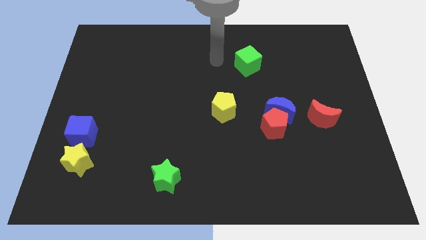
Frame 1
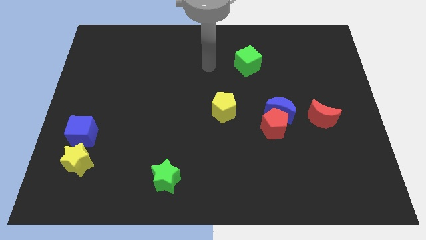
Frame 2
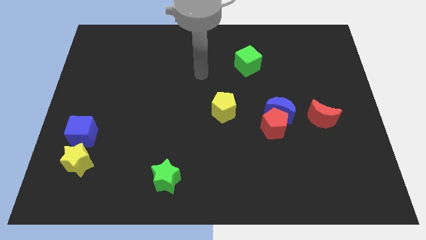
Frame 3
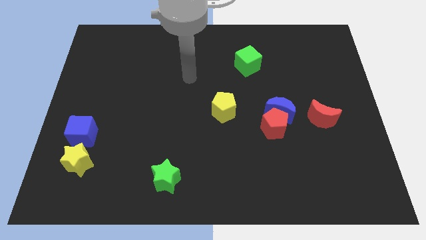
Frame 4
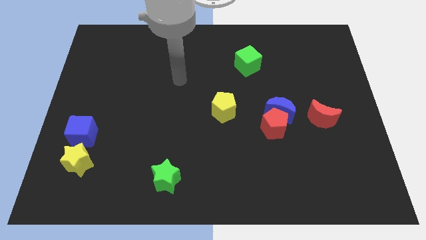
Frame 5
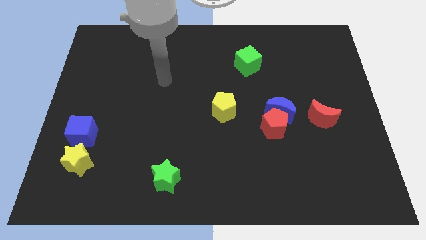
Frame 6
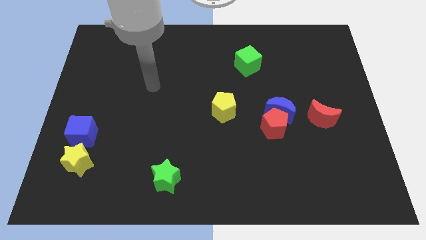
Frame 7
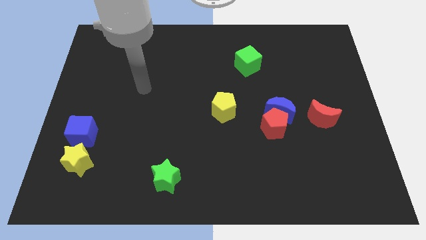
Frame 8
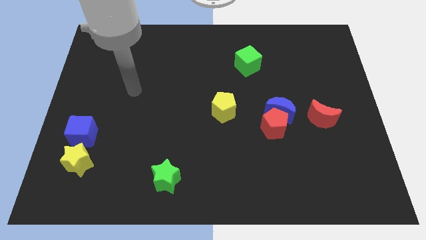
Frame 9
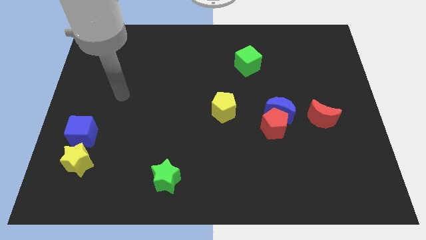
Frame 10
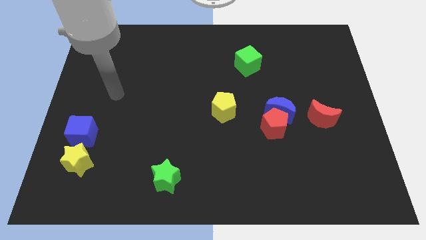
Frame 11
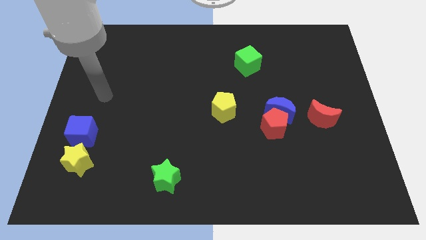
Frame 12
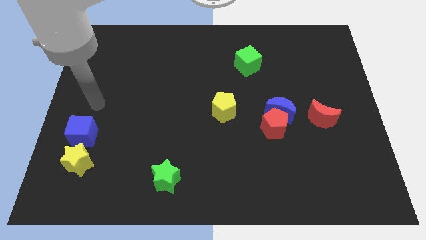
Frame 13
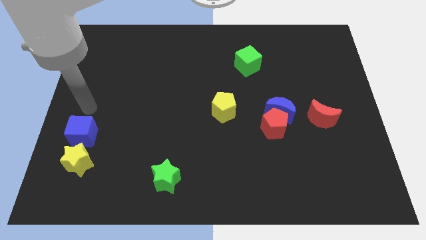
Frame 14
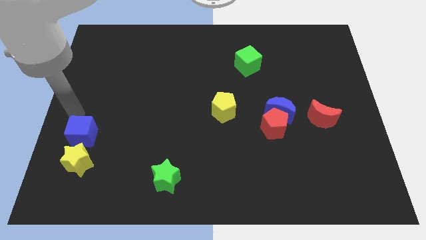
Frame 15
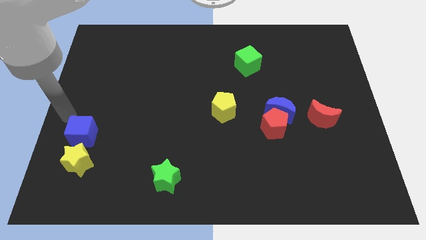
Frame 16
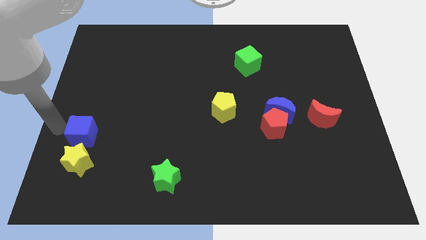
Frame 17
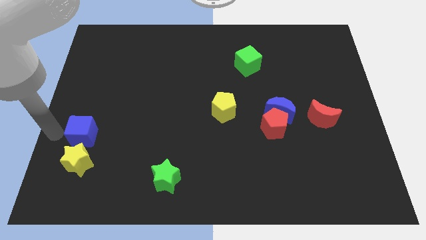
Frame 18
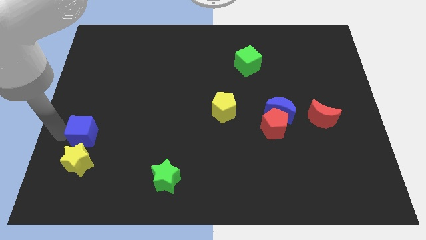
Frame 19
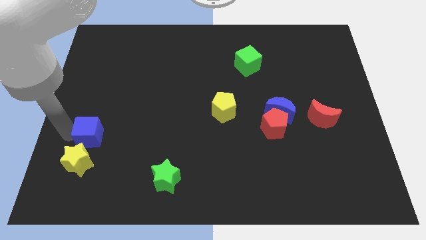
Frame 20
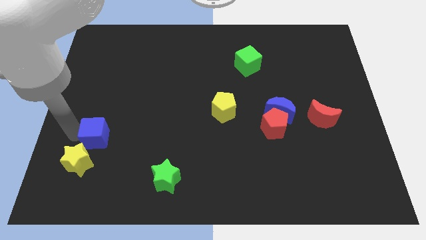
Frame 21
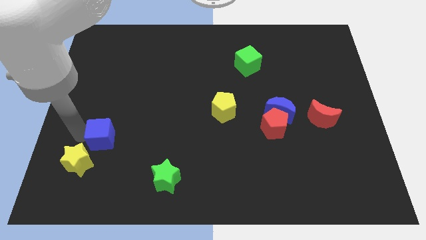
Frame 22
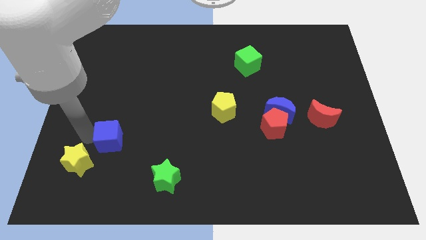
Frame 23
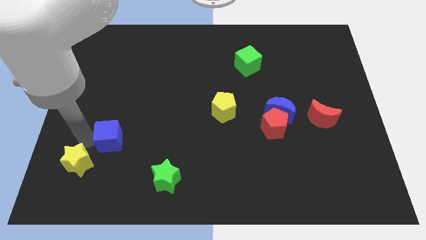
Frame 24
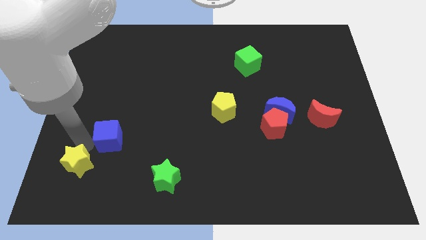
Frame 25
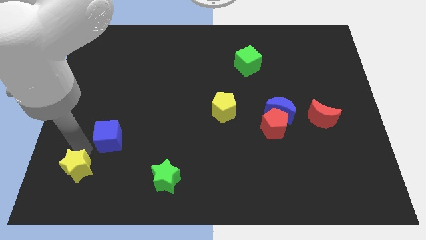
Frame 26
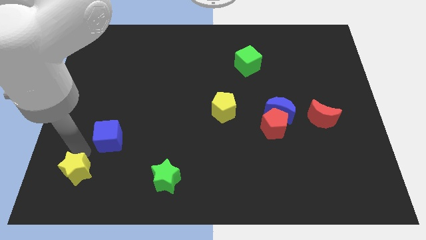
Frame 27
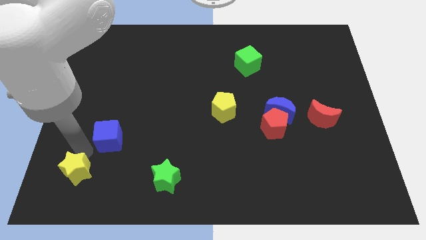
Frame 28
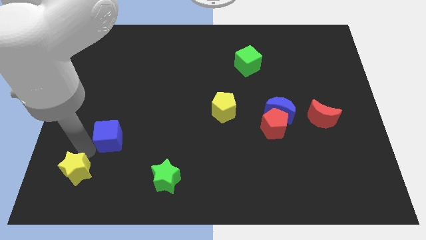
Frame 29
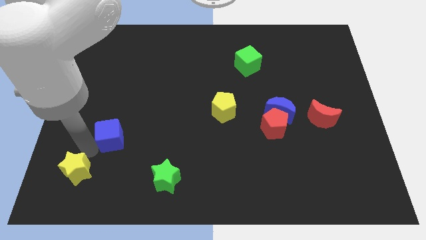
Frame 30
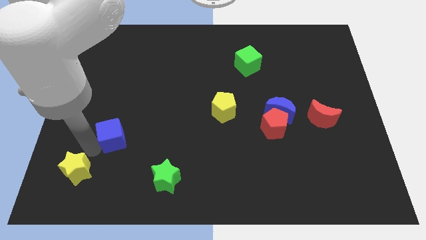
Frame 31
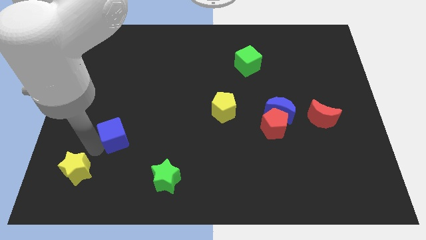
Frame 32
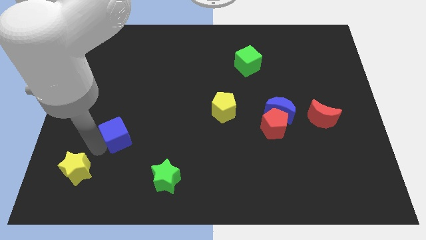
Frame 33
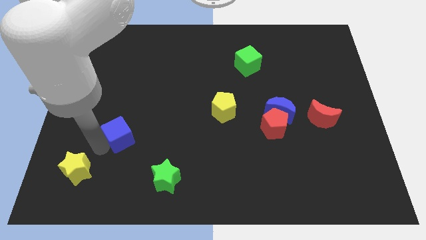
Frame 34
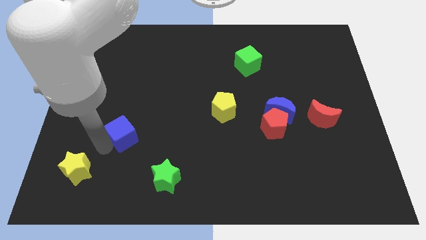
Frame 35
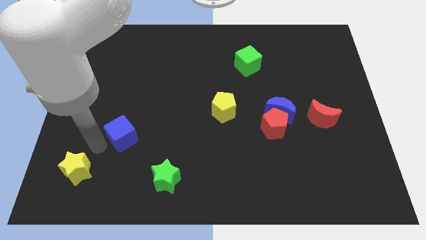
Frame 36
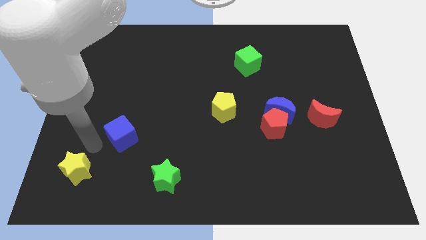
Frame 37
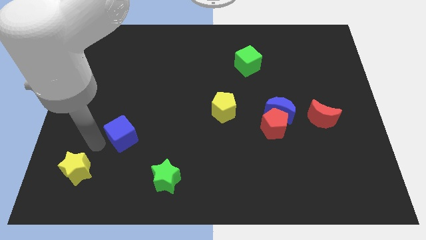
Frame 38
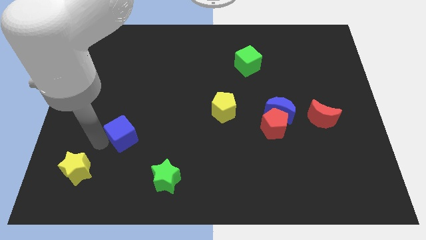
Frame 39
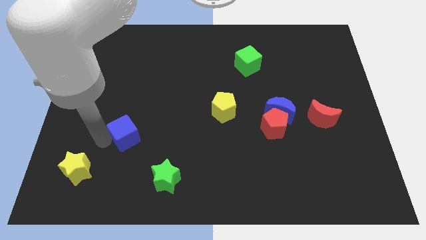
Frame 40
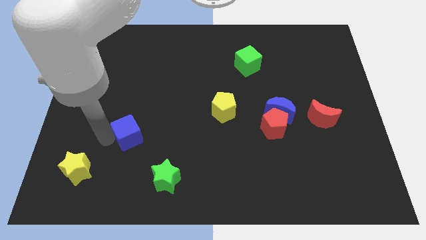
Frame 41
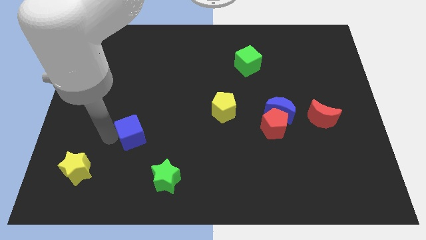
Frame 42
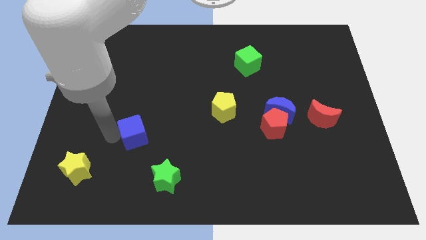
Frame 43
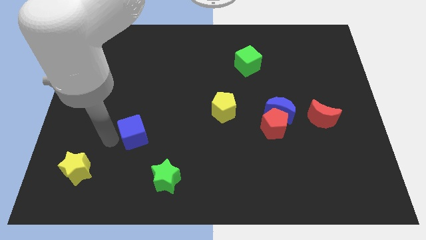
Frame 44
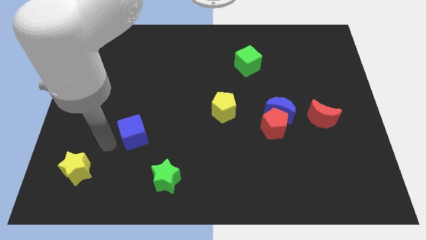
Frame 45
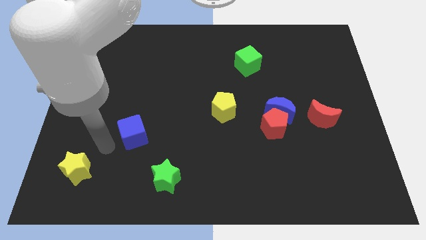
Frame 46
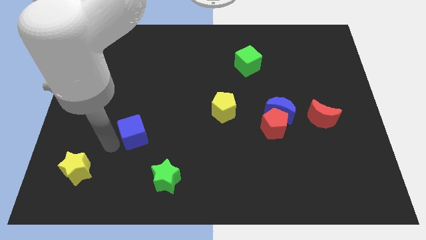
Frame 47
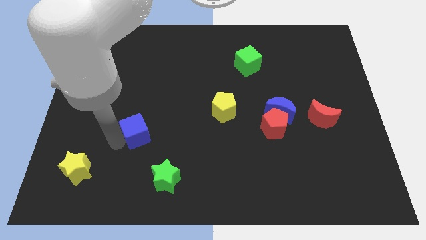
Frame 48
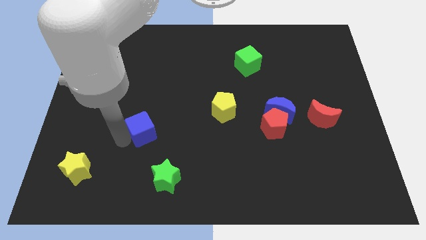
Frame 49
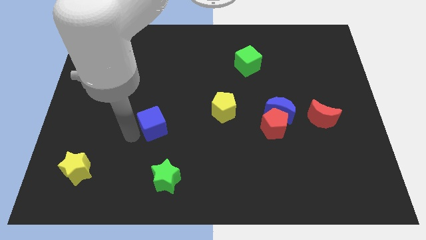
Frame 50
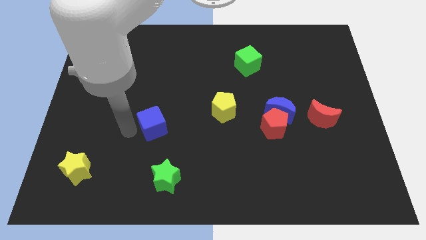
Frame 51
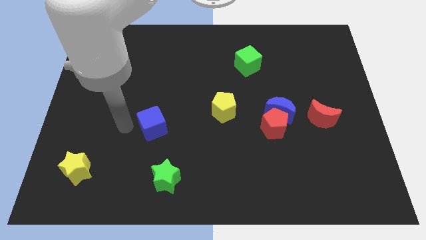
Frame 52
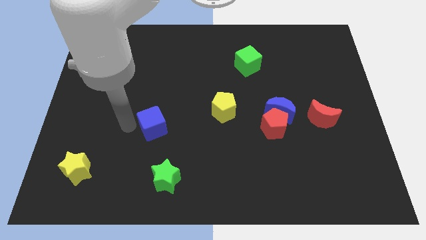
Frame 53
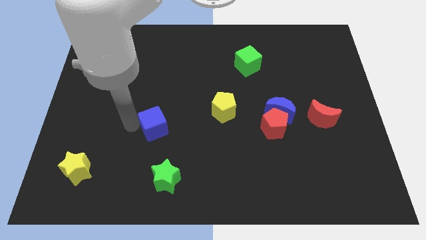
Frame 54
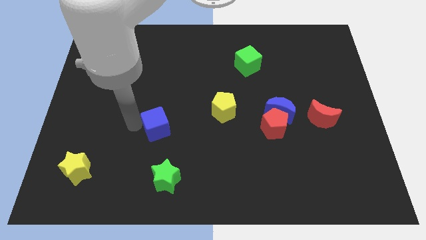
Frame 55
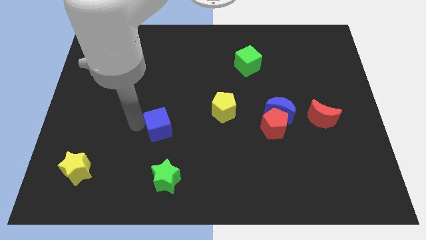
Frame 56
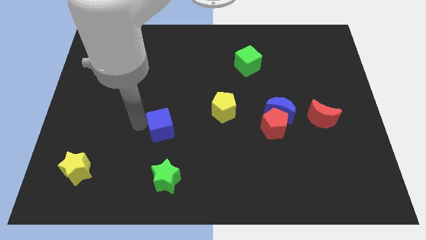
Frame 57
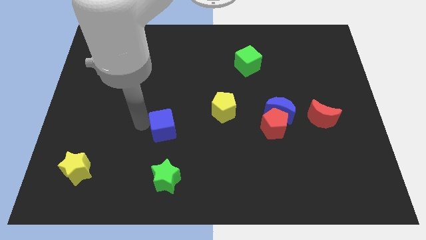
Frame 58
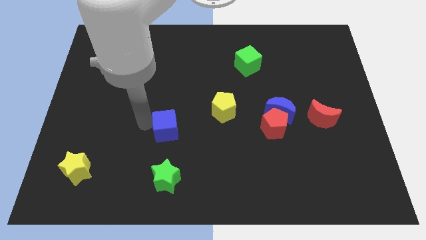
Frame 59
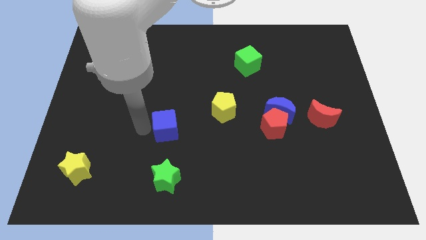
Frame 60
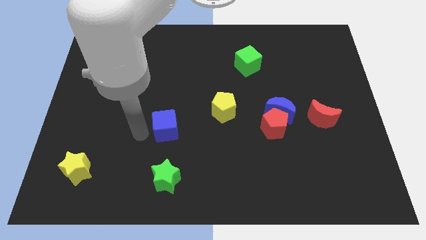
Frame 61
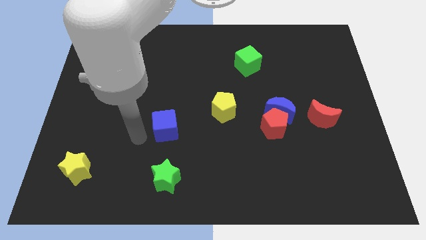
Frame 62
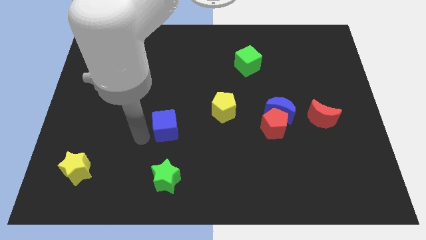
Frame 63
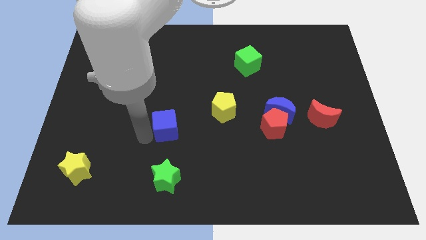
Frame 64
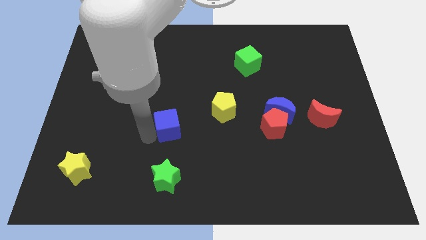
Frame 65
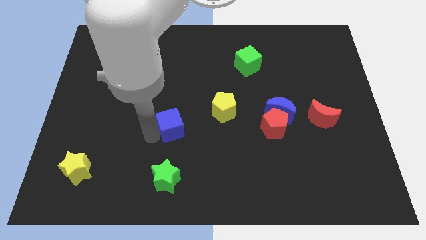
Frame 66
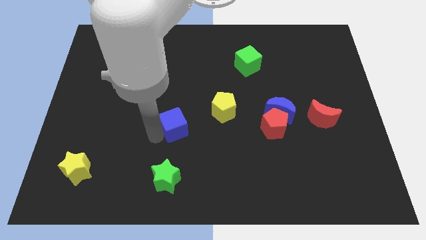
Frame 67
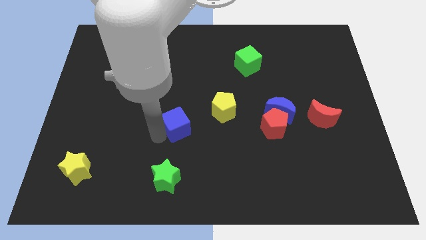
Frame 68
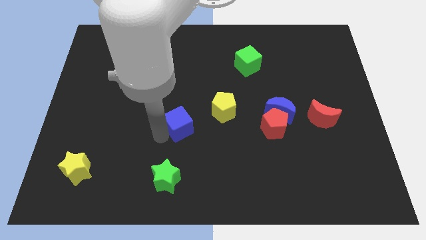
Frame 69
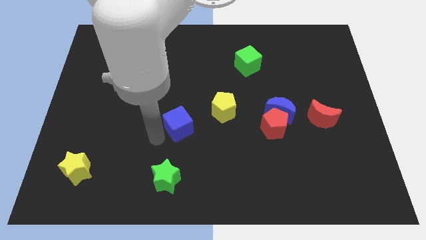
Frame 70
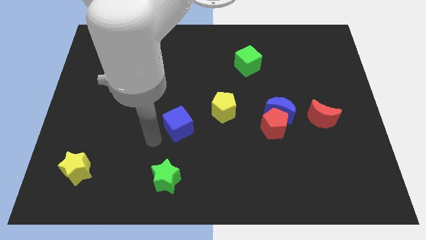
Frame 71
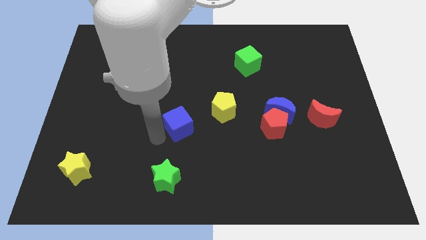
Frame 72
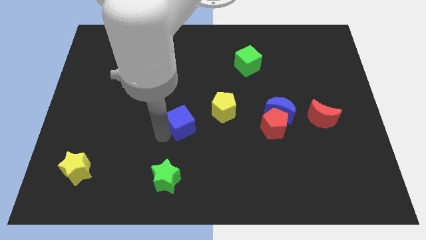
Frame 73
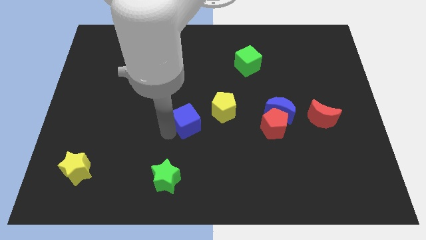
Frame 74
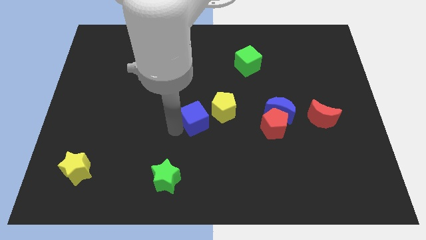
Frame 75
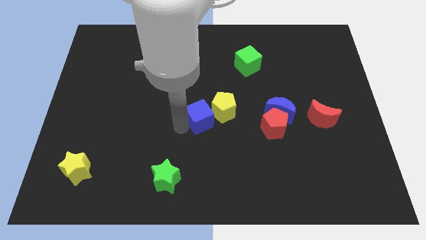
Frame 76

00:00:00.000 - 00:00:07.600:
put the blue cube to the yellow pentagon

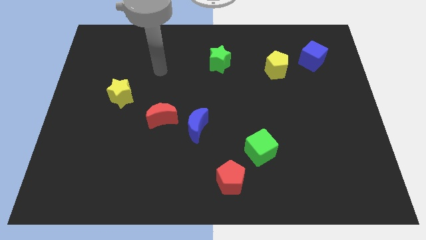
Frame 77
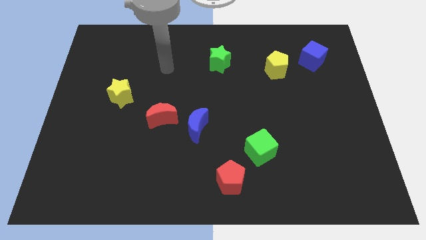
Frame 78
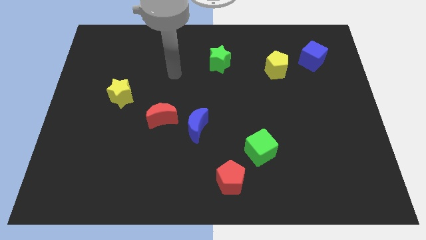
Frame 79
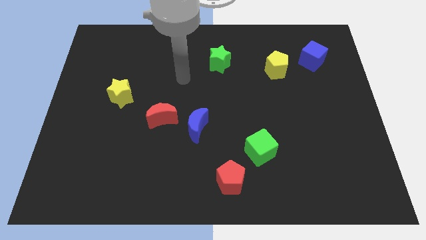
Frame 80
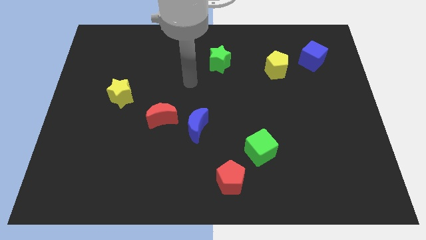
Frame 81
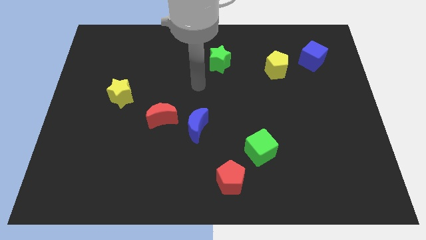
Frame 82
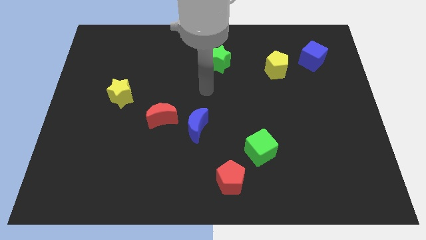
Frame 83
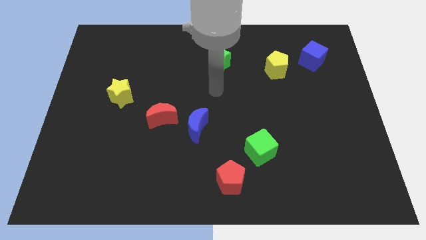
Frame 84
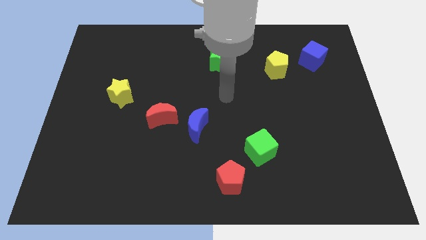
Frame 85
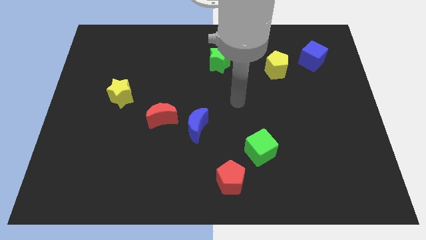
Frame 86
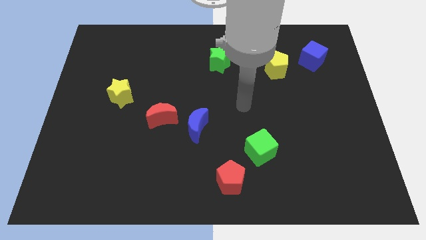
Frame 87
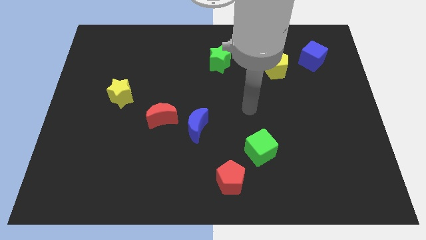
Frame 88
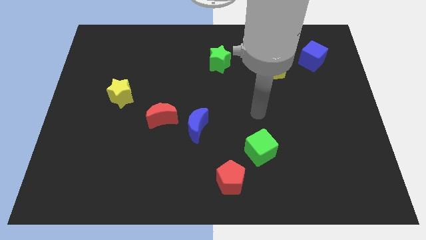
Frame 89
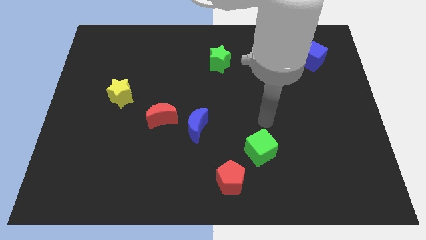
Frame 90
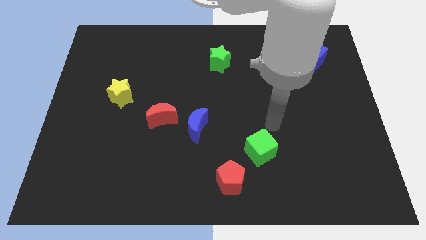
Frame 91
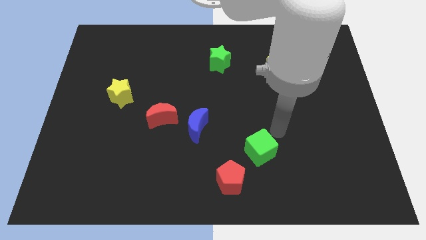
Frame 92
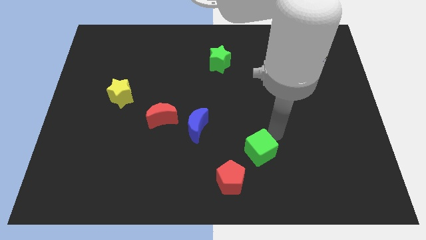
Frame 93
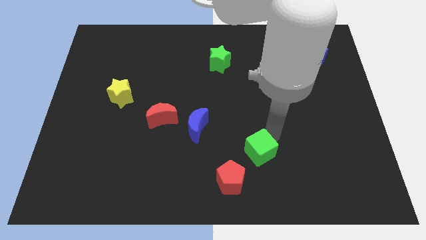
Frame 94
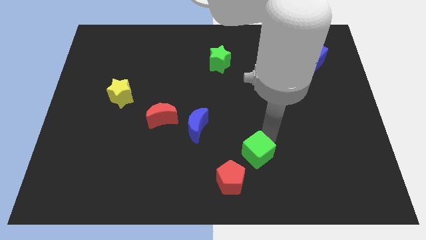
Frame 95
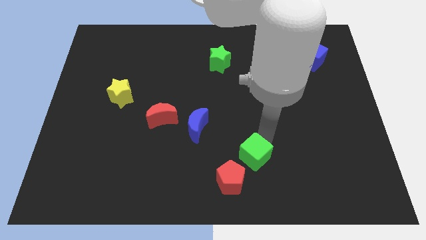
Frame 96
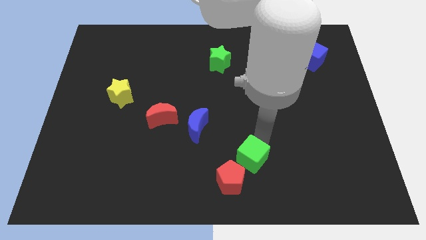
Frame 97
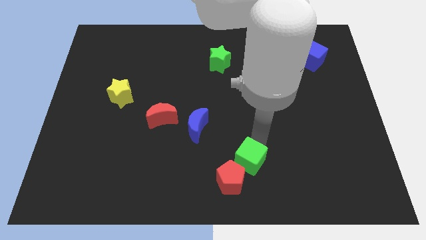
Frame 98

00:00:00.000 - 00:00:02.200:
put the green cube next to the red pentagon
